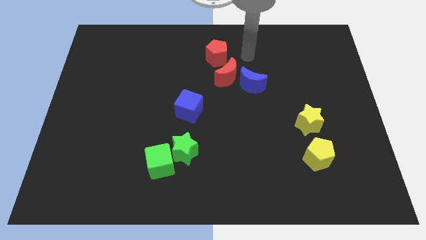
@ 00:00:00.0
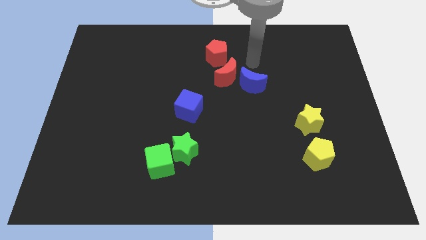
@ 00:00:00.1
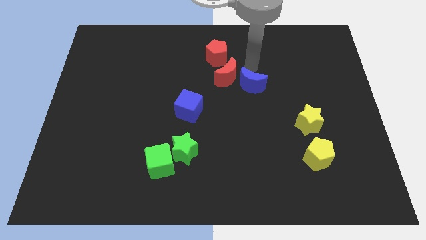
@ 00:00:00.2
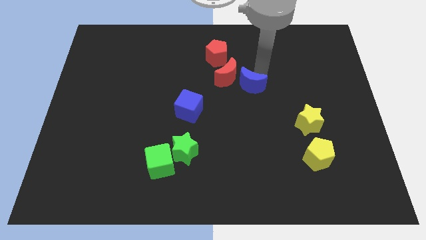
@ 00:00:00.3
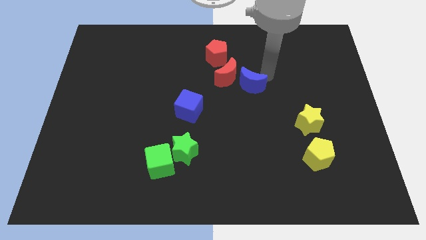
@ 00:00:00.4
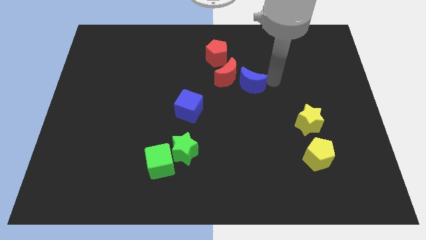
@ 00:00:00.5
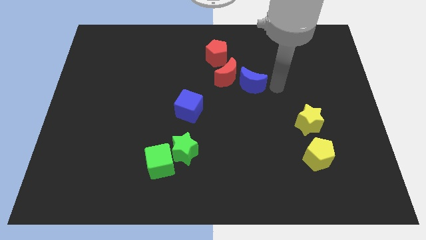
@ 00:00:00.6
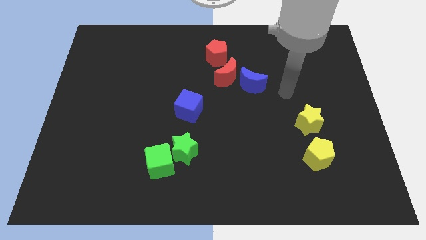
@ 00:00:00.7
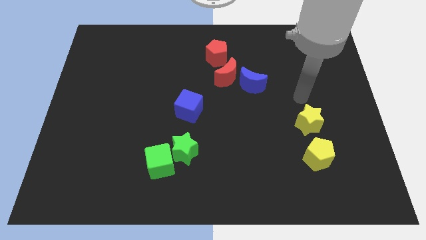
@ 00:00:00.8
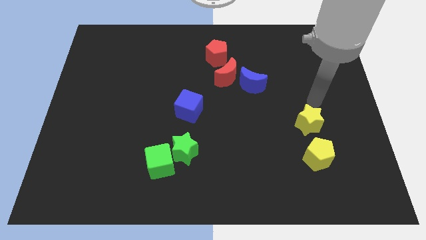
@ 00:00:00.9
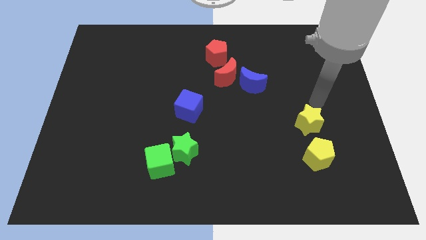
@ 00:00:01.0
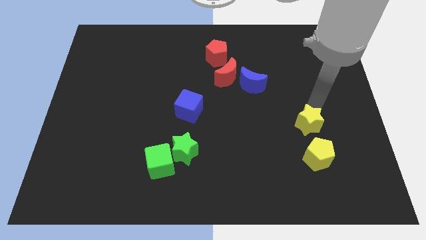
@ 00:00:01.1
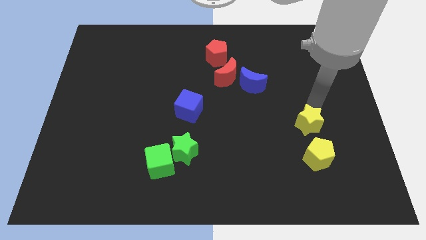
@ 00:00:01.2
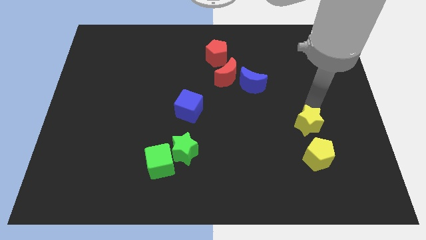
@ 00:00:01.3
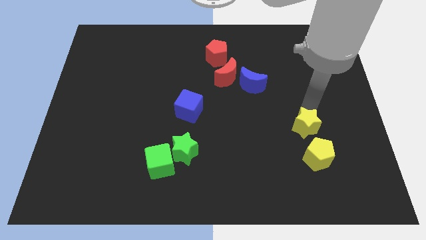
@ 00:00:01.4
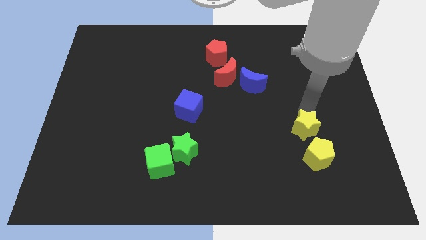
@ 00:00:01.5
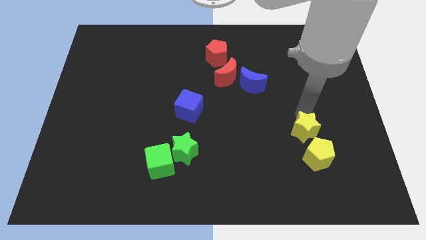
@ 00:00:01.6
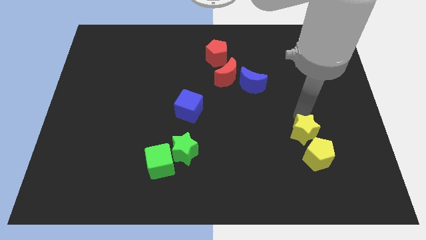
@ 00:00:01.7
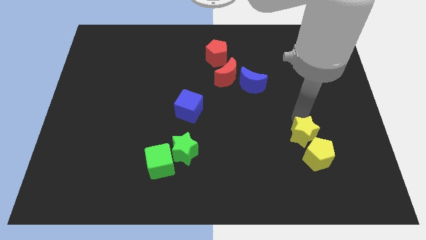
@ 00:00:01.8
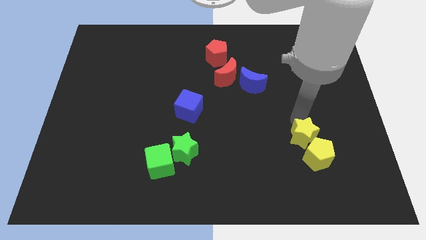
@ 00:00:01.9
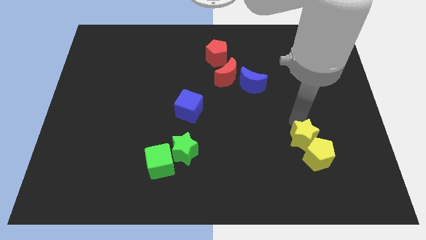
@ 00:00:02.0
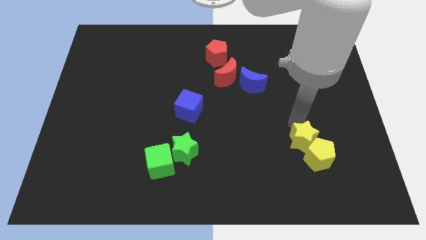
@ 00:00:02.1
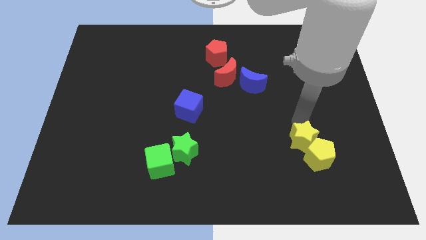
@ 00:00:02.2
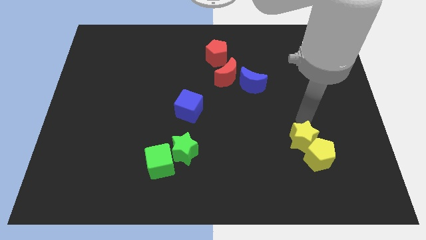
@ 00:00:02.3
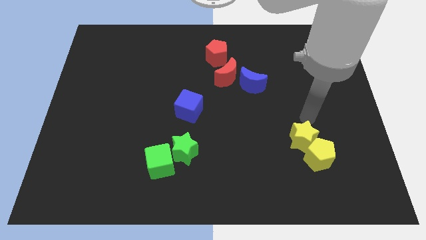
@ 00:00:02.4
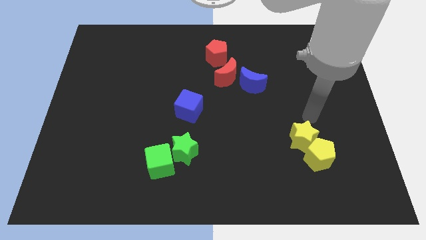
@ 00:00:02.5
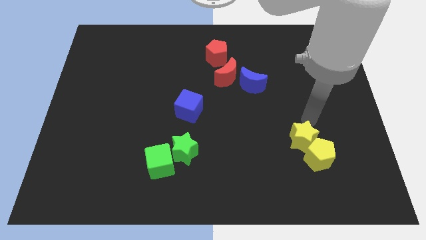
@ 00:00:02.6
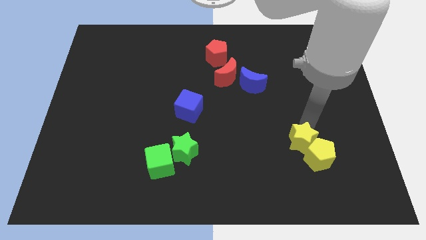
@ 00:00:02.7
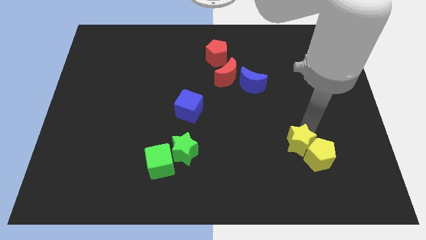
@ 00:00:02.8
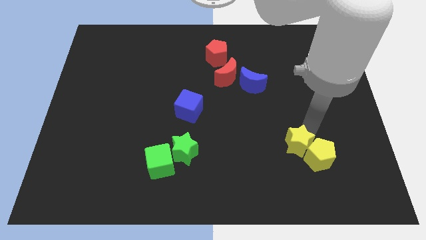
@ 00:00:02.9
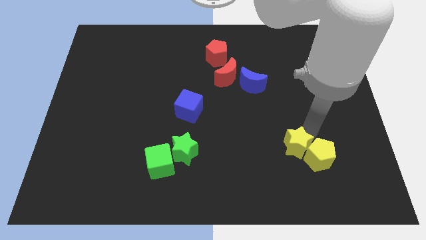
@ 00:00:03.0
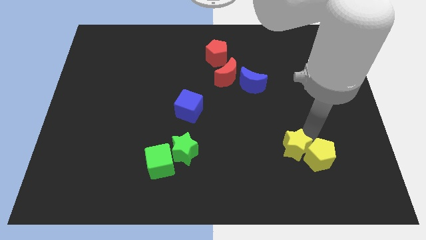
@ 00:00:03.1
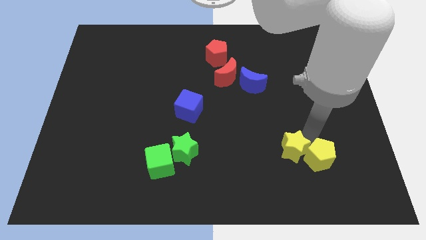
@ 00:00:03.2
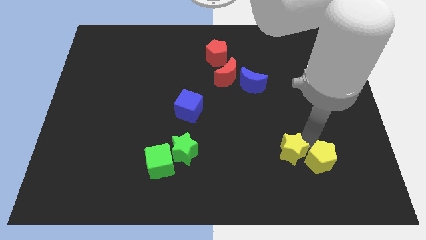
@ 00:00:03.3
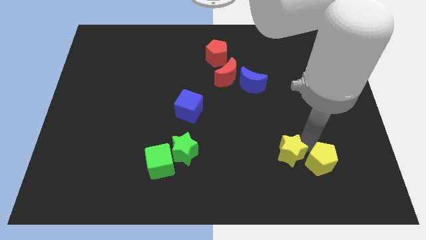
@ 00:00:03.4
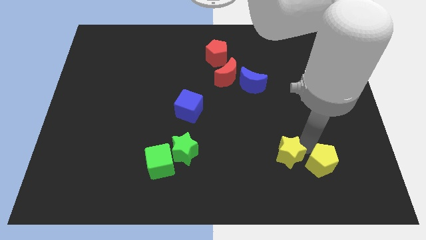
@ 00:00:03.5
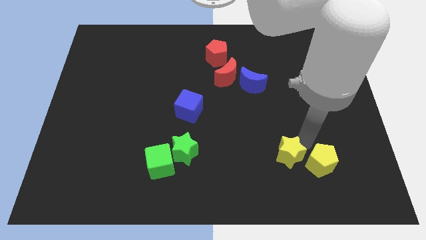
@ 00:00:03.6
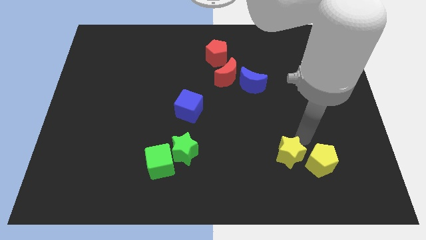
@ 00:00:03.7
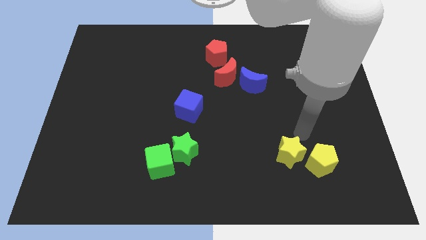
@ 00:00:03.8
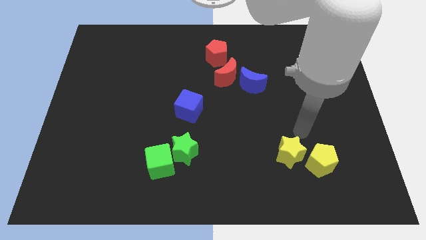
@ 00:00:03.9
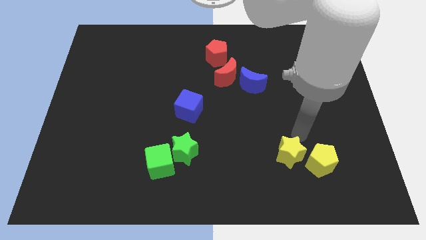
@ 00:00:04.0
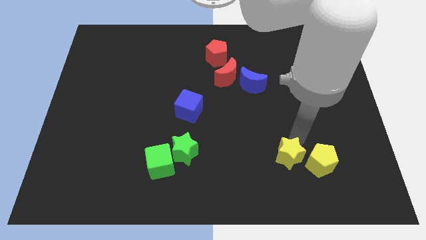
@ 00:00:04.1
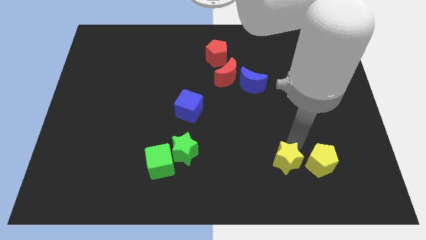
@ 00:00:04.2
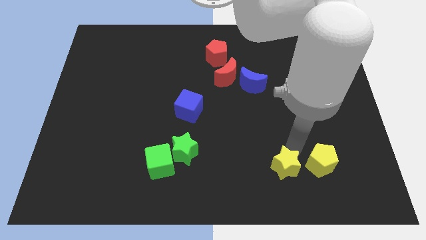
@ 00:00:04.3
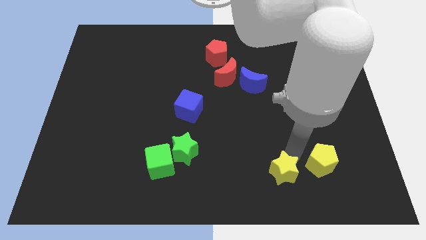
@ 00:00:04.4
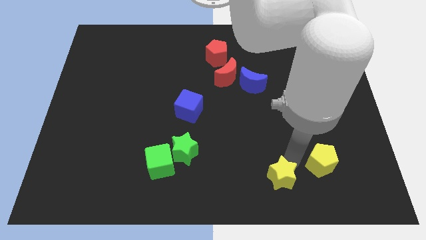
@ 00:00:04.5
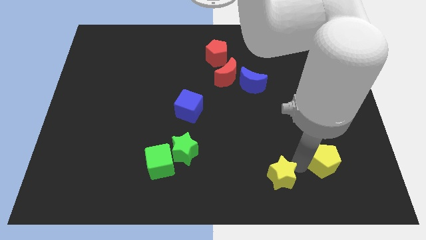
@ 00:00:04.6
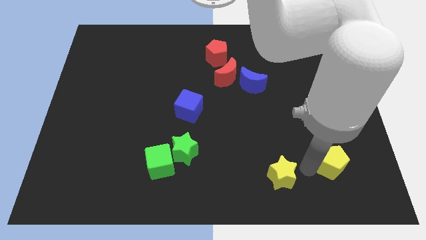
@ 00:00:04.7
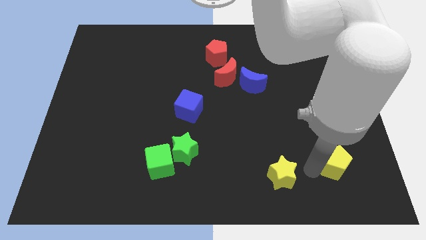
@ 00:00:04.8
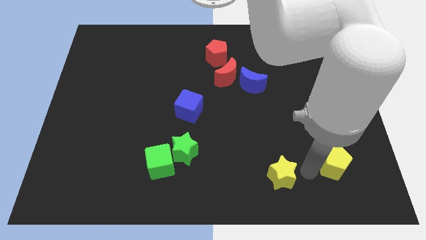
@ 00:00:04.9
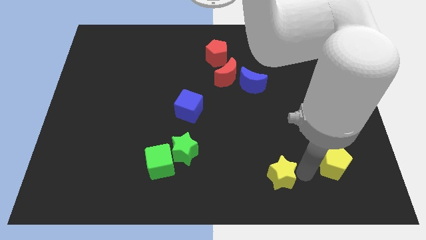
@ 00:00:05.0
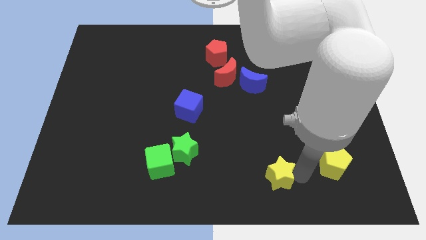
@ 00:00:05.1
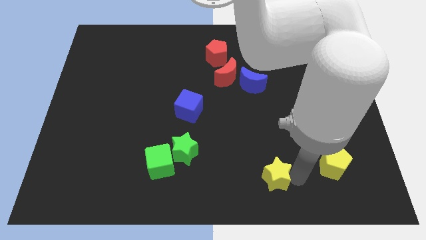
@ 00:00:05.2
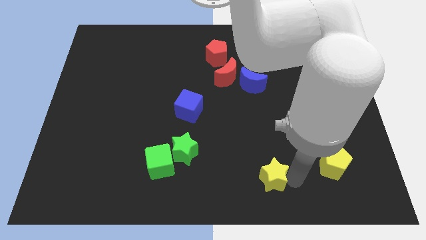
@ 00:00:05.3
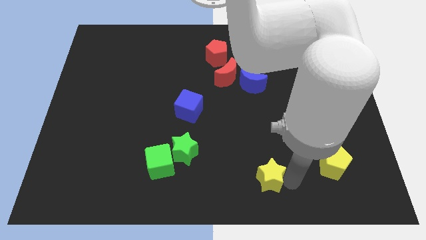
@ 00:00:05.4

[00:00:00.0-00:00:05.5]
move the yellow star to the bottom side

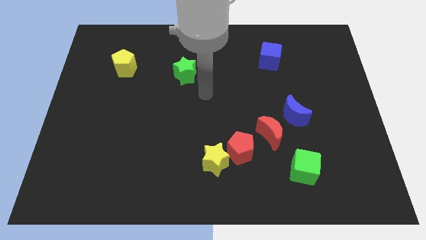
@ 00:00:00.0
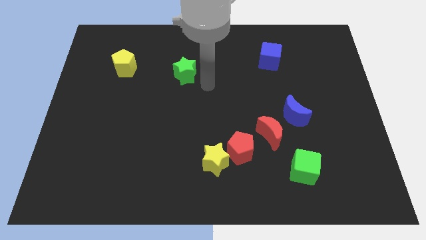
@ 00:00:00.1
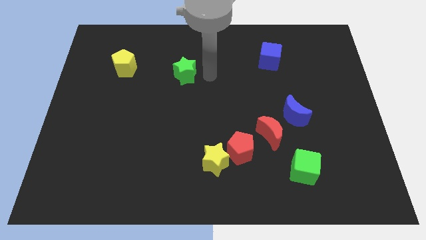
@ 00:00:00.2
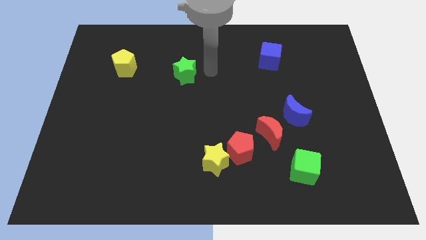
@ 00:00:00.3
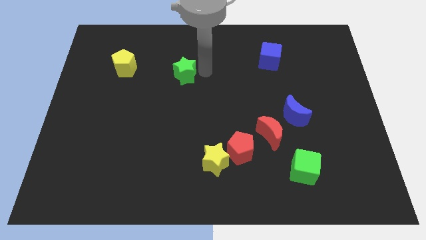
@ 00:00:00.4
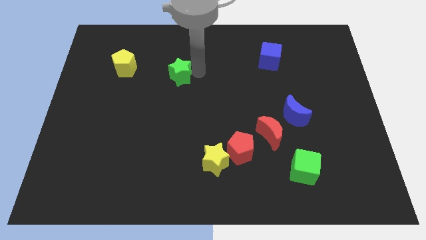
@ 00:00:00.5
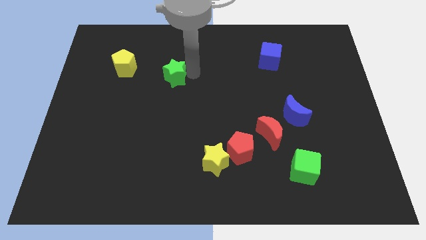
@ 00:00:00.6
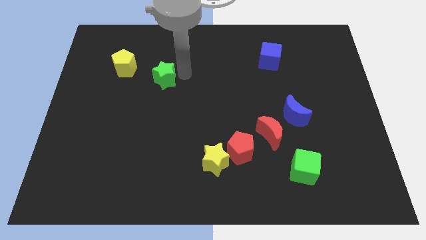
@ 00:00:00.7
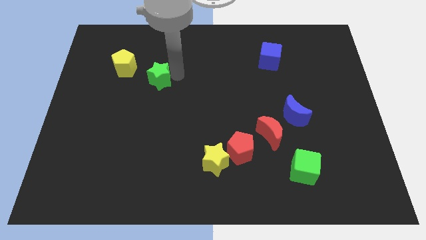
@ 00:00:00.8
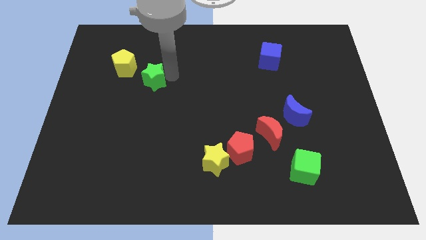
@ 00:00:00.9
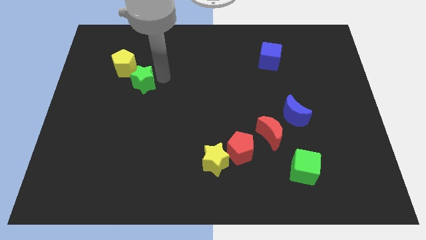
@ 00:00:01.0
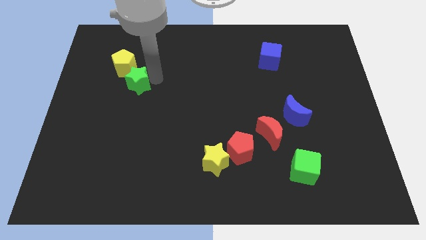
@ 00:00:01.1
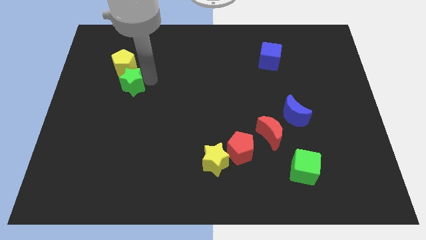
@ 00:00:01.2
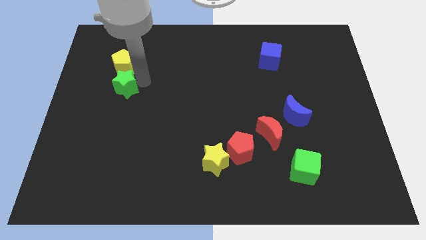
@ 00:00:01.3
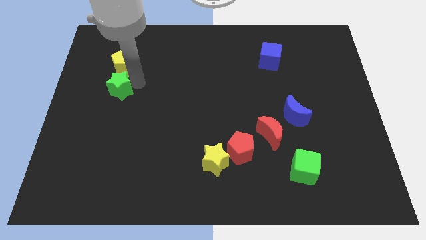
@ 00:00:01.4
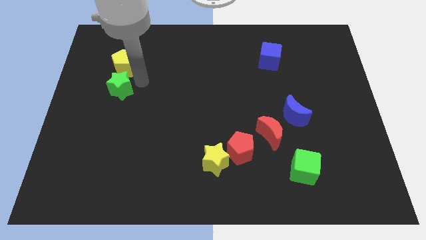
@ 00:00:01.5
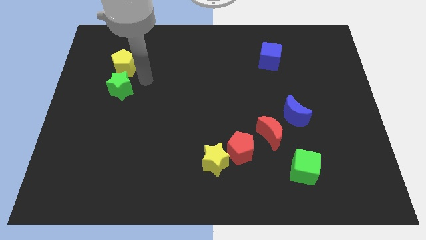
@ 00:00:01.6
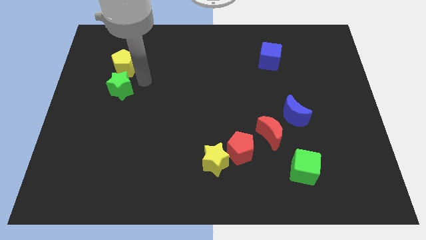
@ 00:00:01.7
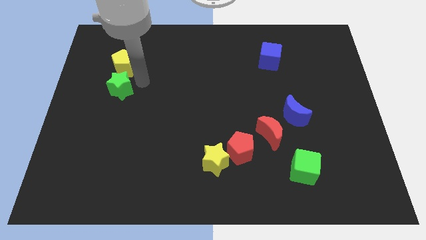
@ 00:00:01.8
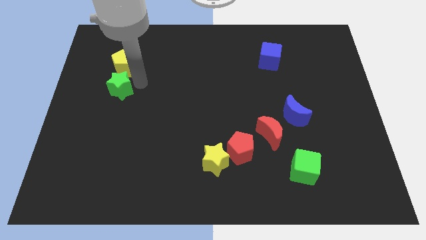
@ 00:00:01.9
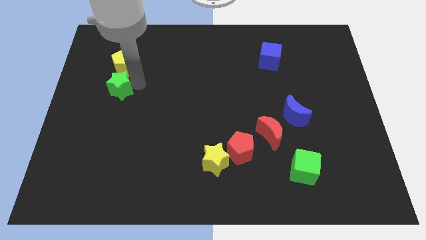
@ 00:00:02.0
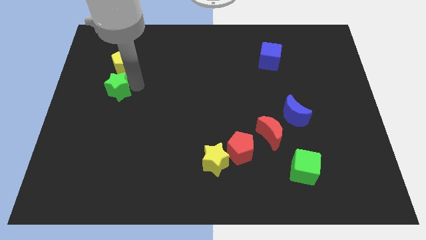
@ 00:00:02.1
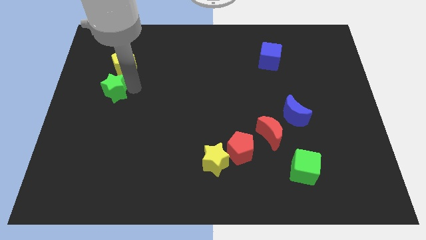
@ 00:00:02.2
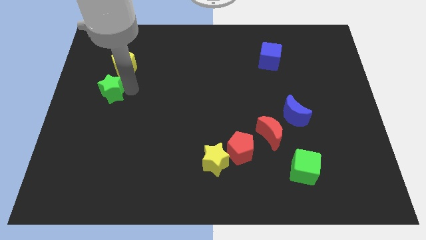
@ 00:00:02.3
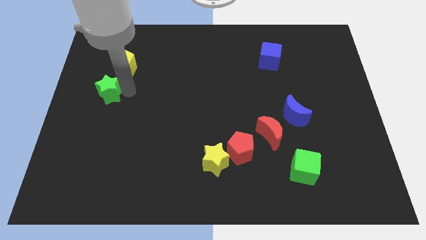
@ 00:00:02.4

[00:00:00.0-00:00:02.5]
slide the green star to the left side
